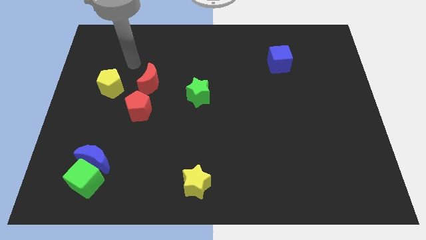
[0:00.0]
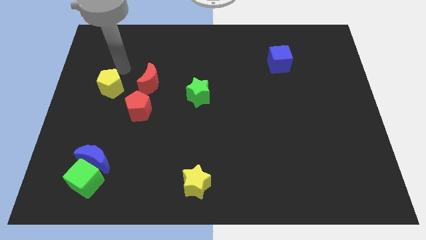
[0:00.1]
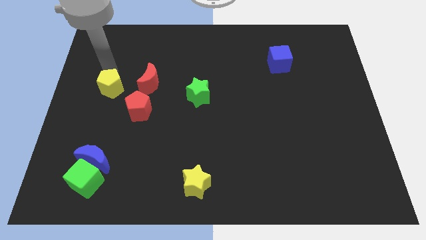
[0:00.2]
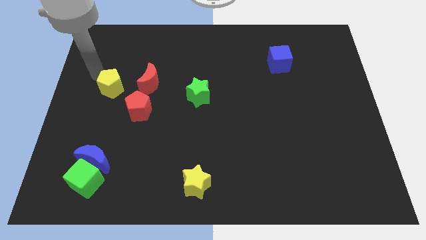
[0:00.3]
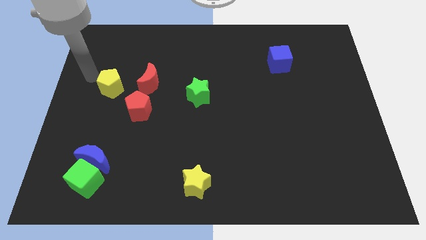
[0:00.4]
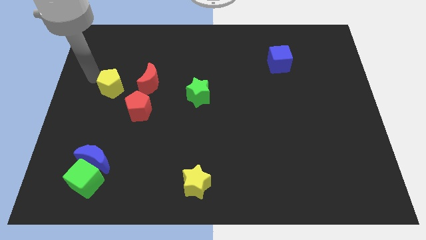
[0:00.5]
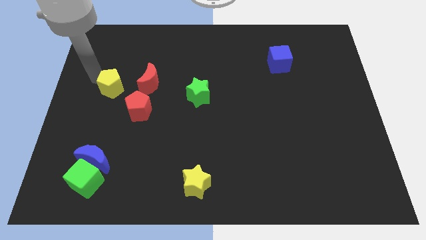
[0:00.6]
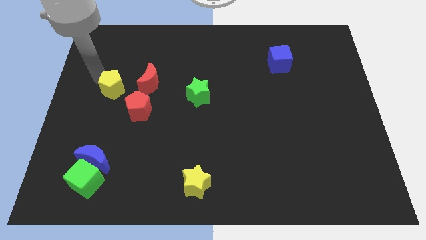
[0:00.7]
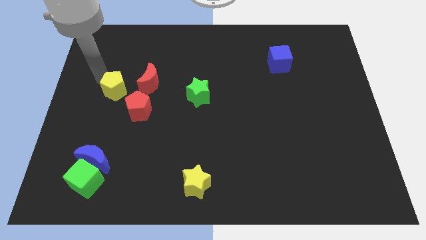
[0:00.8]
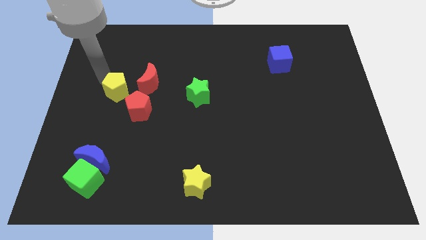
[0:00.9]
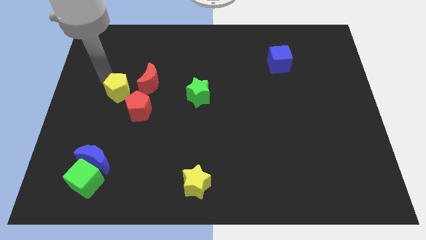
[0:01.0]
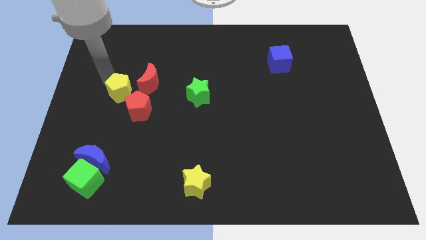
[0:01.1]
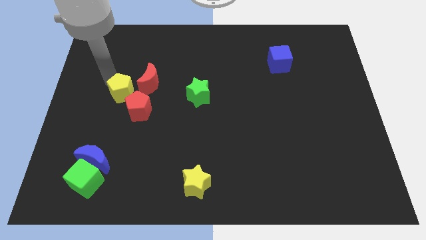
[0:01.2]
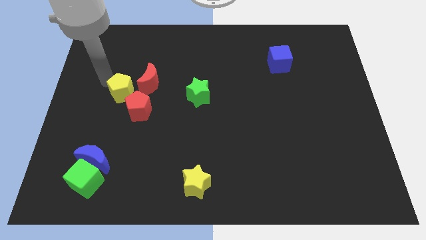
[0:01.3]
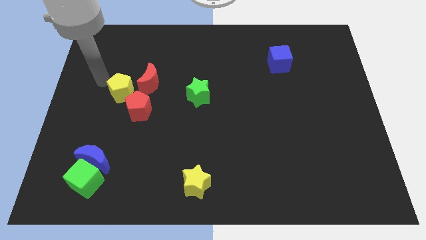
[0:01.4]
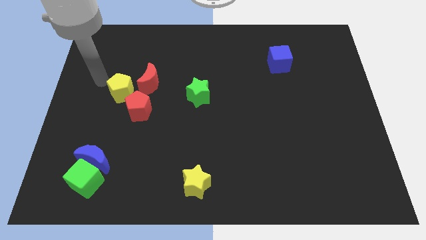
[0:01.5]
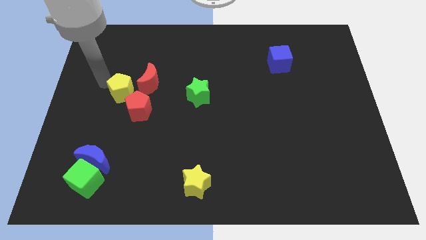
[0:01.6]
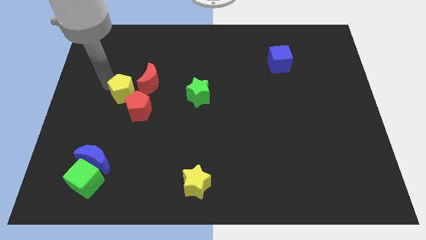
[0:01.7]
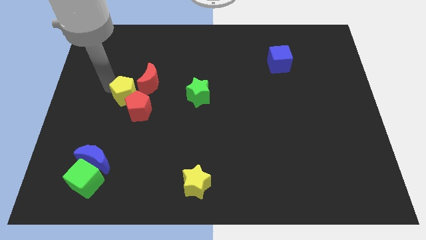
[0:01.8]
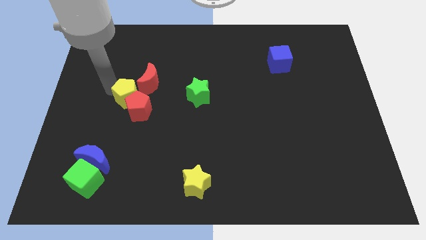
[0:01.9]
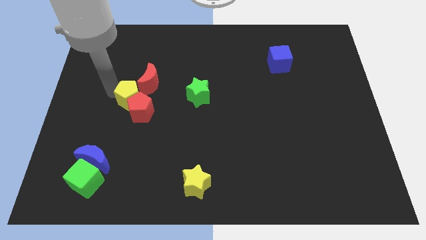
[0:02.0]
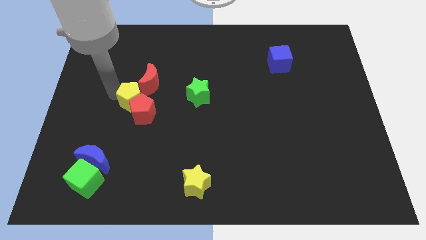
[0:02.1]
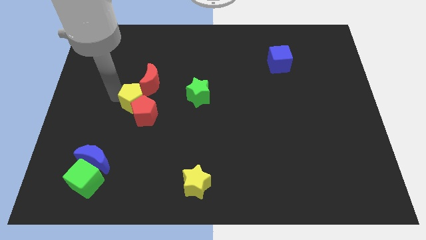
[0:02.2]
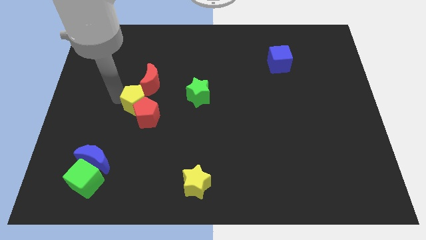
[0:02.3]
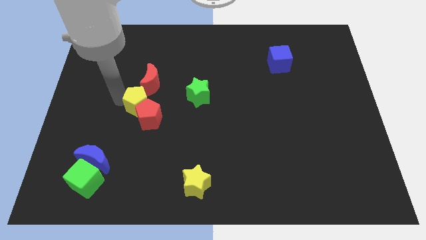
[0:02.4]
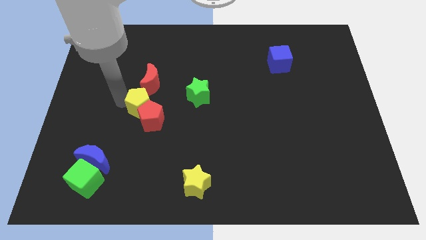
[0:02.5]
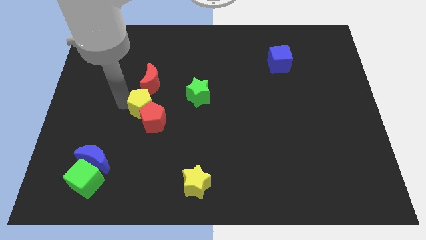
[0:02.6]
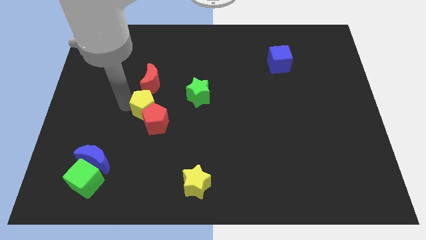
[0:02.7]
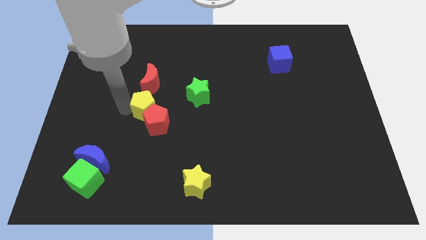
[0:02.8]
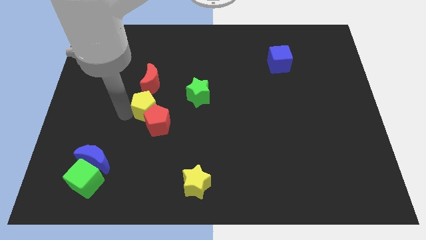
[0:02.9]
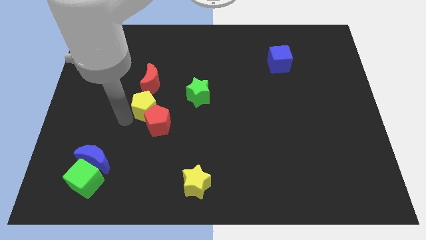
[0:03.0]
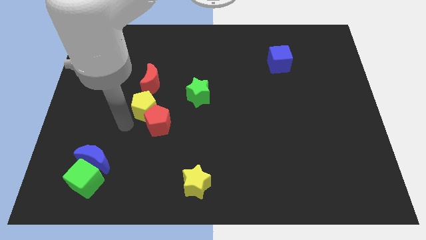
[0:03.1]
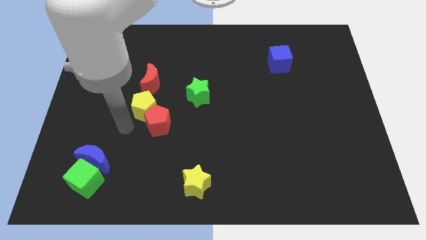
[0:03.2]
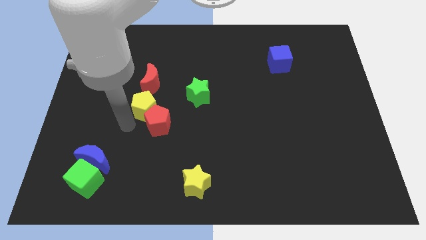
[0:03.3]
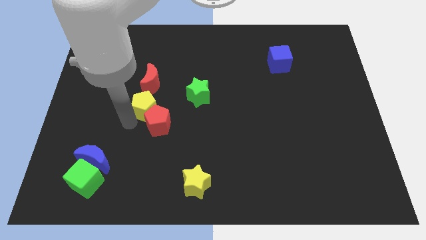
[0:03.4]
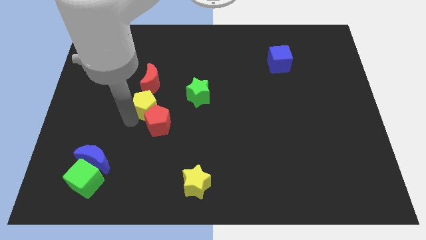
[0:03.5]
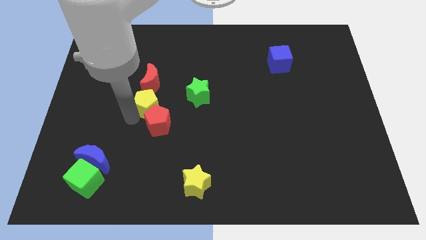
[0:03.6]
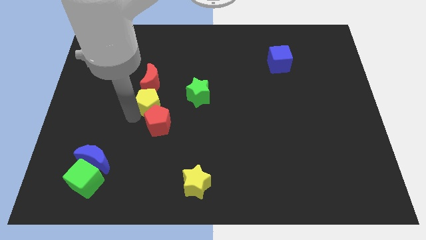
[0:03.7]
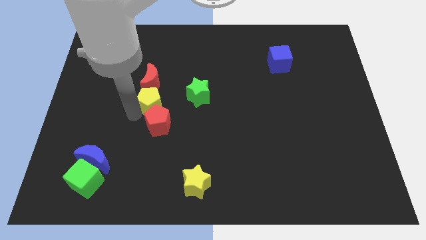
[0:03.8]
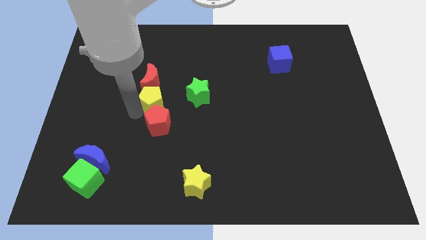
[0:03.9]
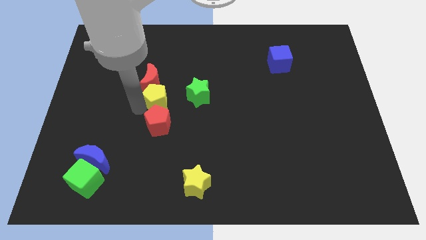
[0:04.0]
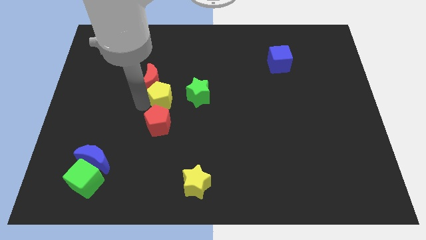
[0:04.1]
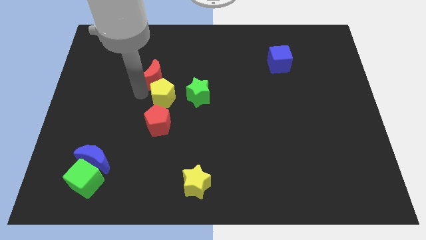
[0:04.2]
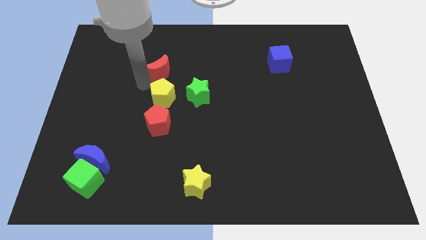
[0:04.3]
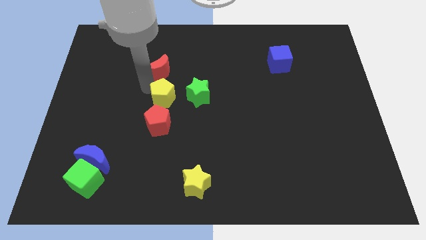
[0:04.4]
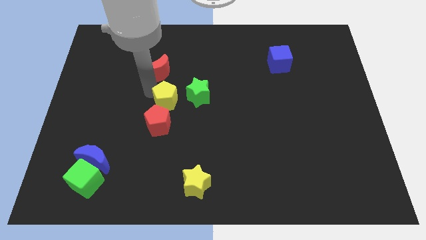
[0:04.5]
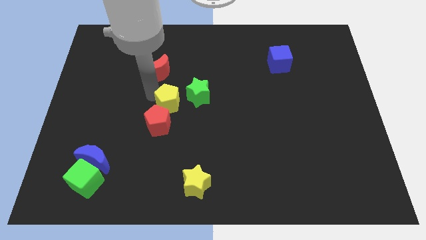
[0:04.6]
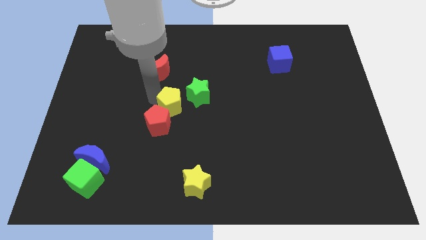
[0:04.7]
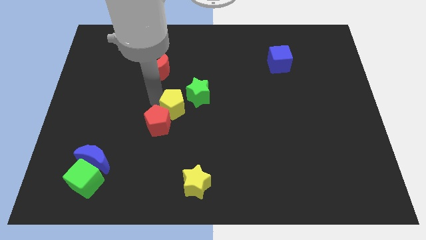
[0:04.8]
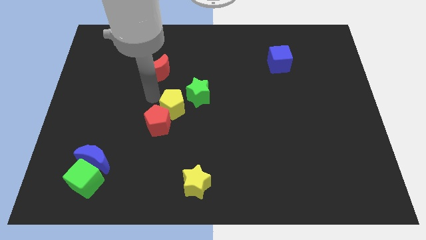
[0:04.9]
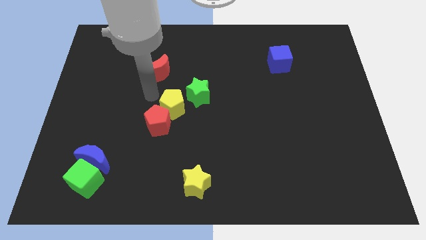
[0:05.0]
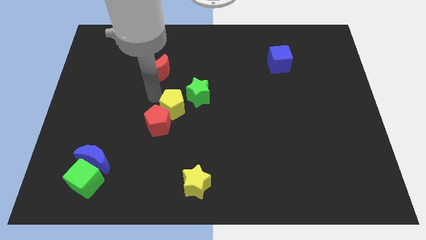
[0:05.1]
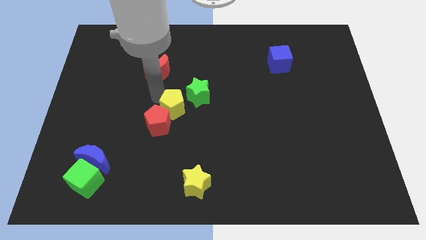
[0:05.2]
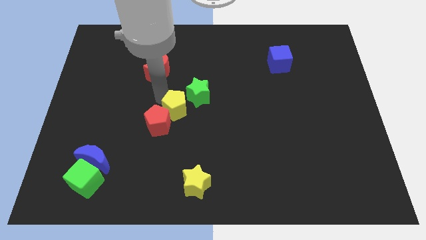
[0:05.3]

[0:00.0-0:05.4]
move the yellow pentagon just right of the red pentagon
